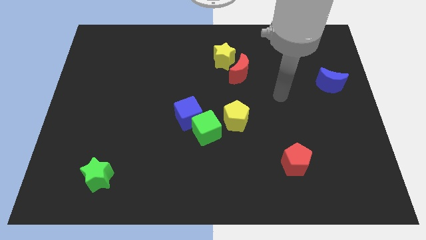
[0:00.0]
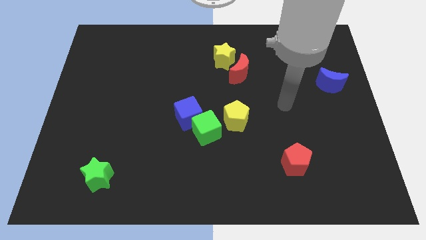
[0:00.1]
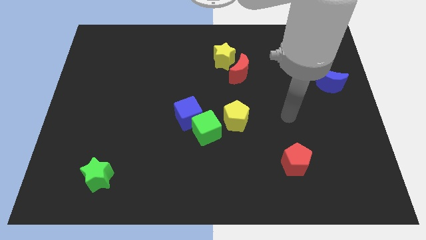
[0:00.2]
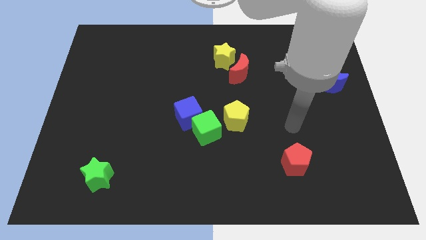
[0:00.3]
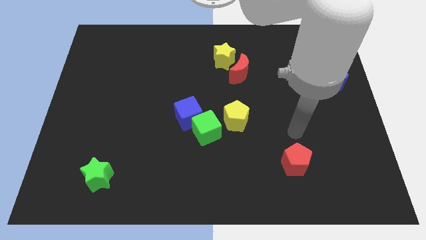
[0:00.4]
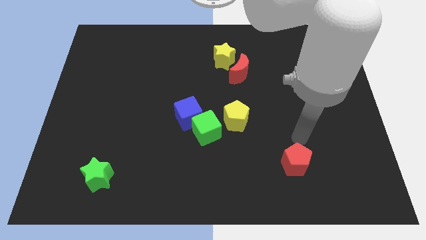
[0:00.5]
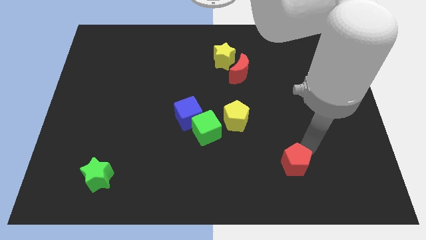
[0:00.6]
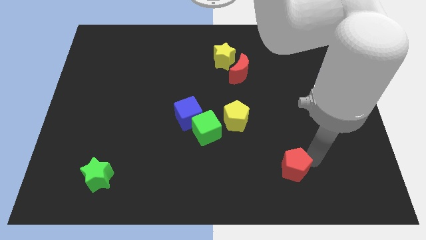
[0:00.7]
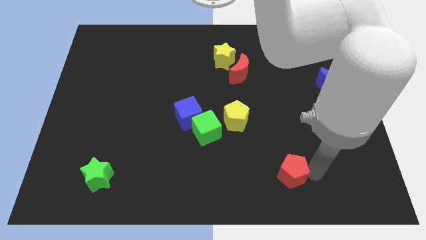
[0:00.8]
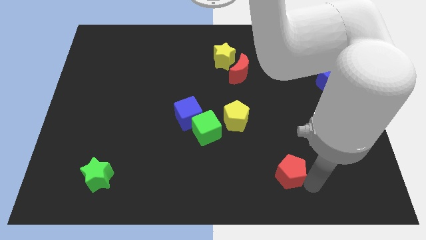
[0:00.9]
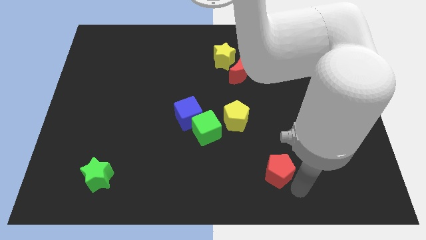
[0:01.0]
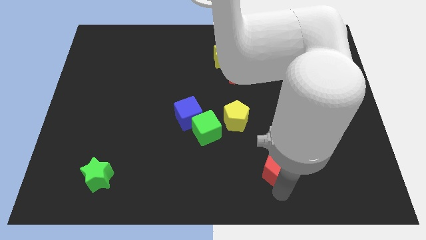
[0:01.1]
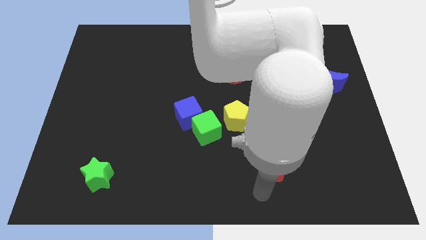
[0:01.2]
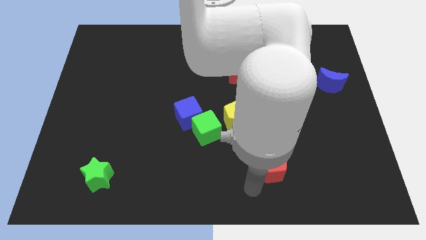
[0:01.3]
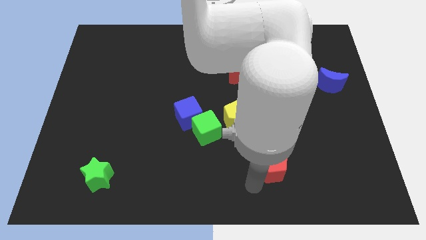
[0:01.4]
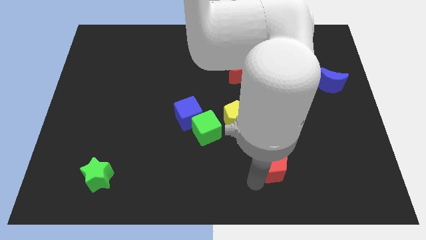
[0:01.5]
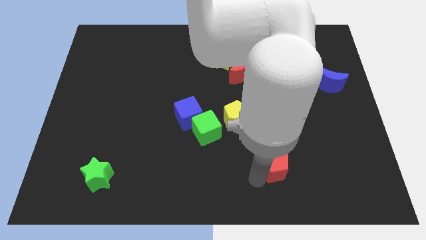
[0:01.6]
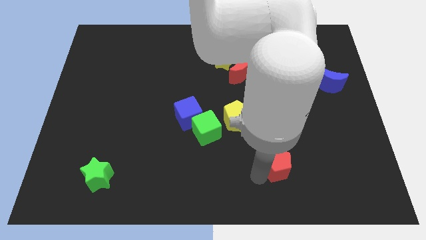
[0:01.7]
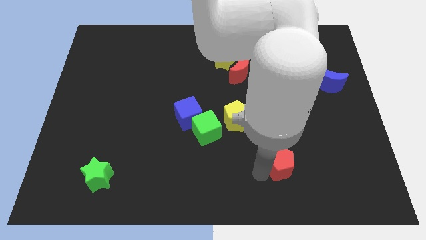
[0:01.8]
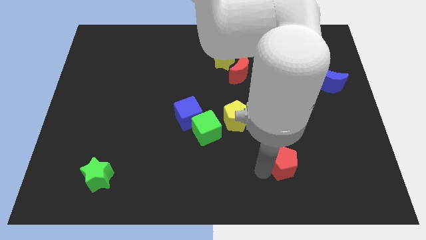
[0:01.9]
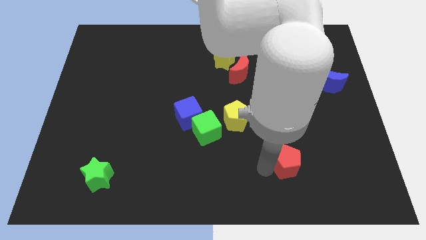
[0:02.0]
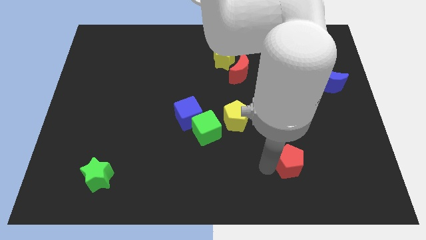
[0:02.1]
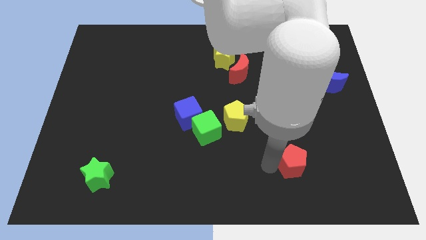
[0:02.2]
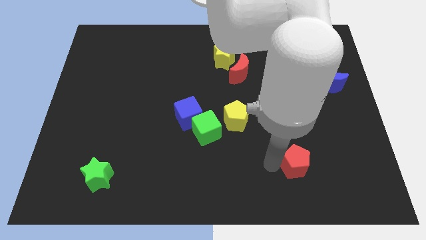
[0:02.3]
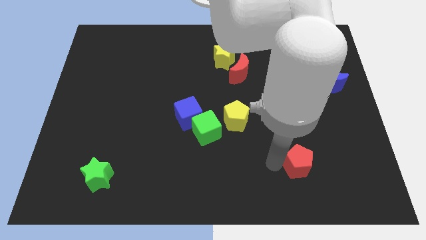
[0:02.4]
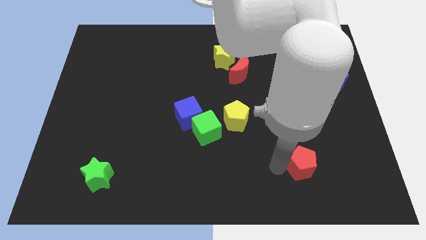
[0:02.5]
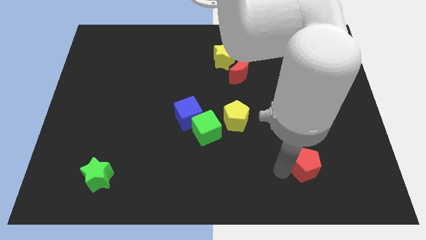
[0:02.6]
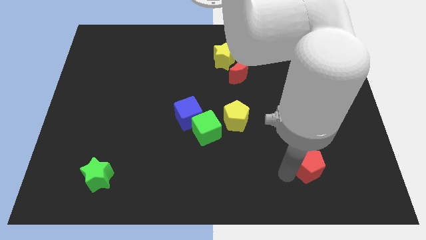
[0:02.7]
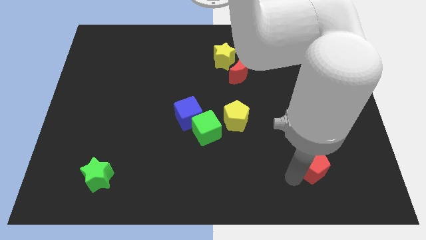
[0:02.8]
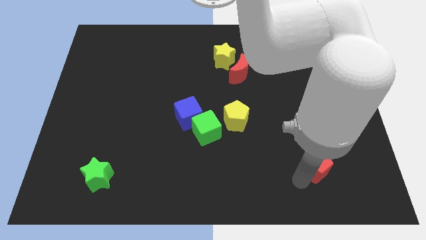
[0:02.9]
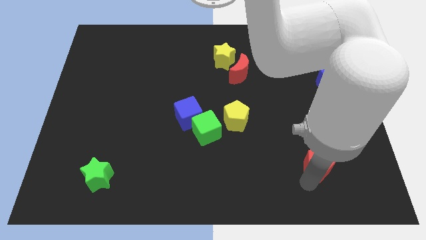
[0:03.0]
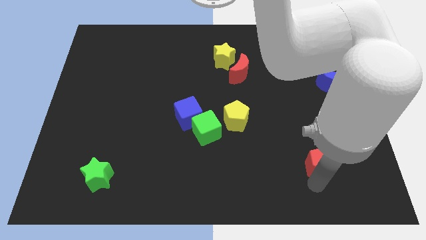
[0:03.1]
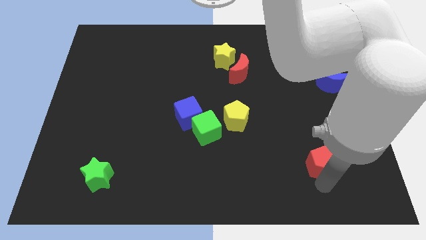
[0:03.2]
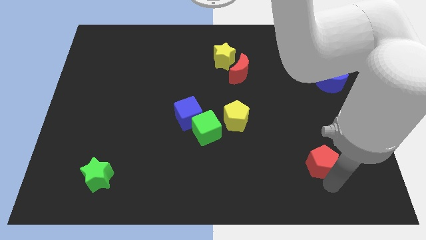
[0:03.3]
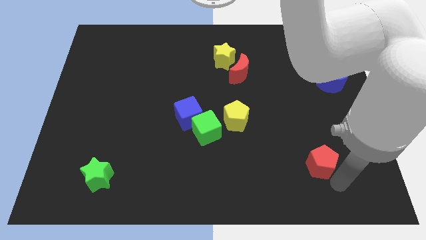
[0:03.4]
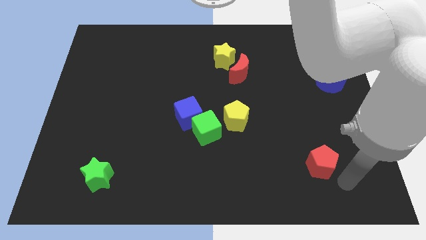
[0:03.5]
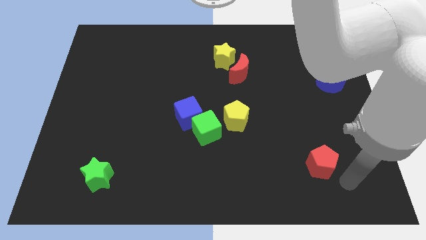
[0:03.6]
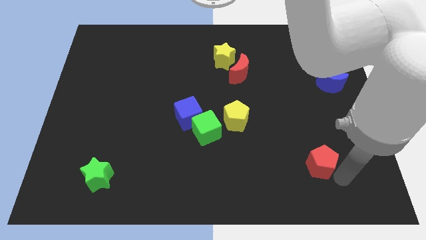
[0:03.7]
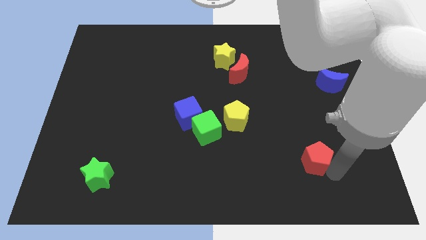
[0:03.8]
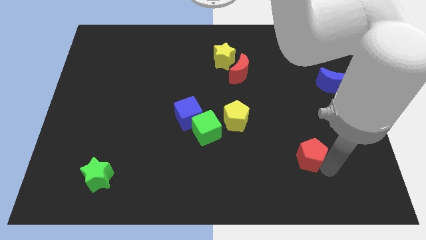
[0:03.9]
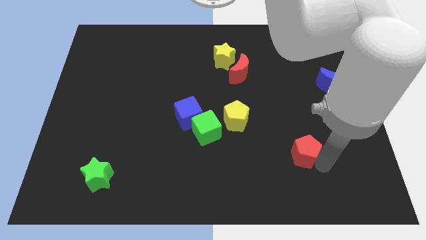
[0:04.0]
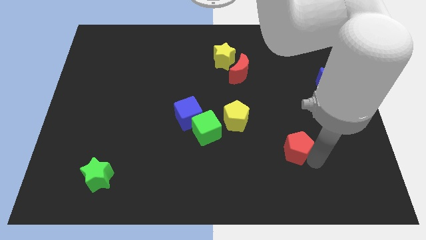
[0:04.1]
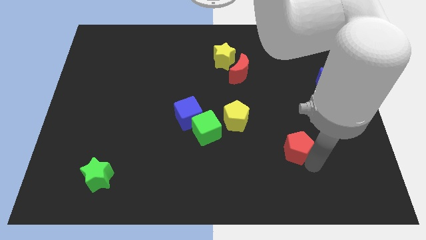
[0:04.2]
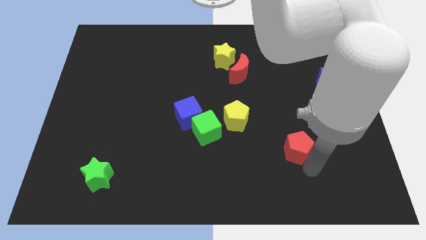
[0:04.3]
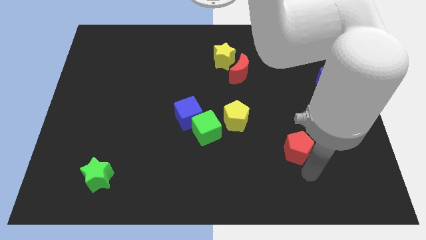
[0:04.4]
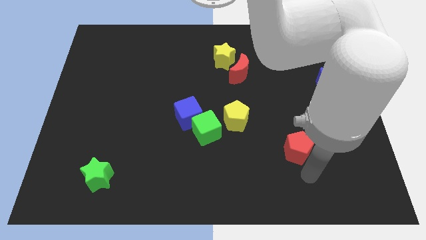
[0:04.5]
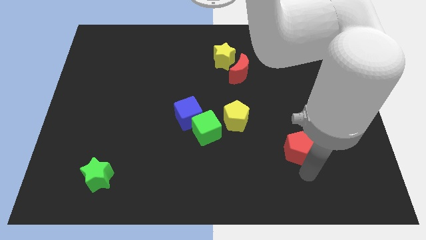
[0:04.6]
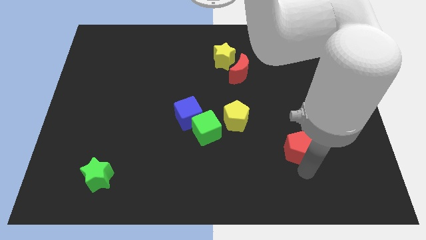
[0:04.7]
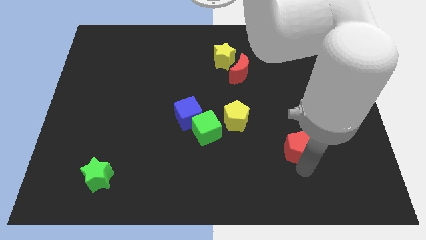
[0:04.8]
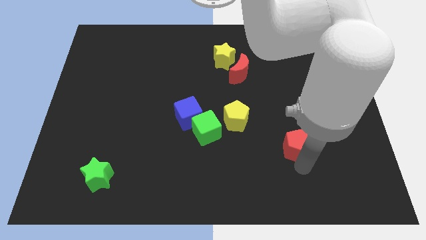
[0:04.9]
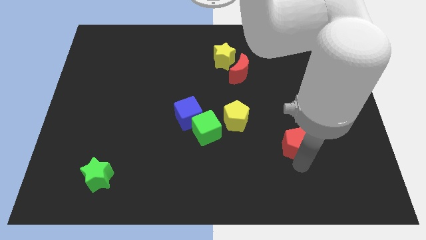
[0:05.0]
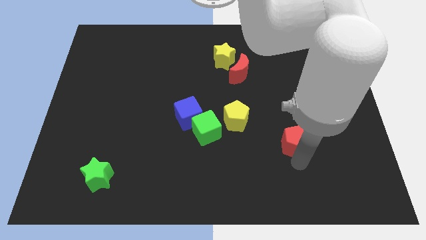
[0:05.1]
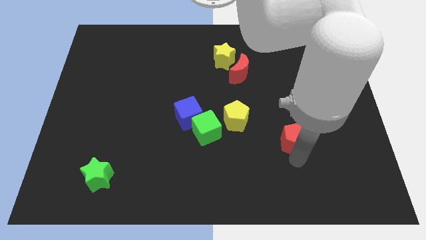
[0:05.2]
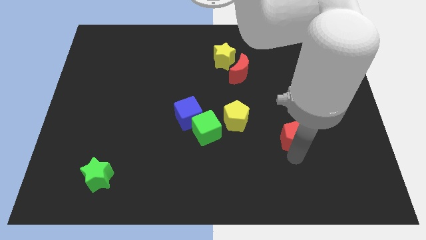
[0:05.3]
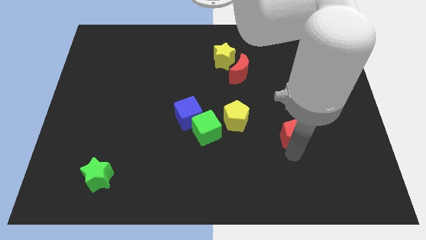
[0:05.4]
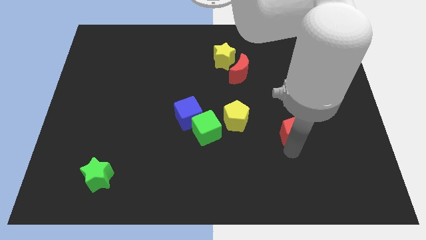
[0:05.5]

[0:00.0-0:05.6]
slightly push the red pentagon up

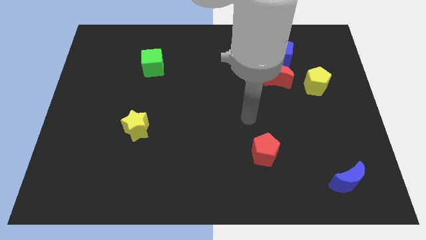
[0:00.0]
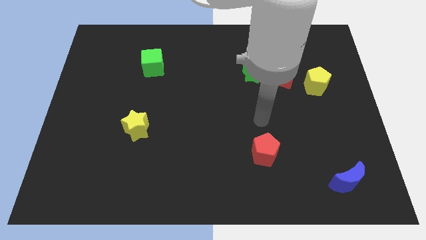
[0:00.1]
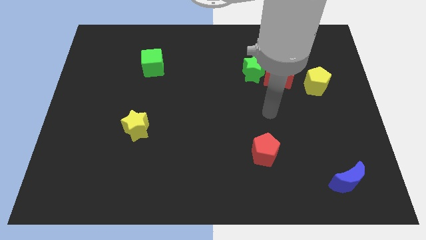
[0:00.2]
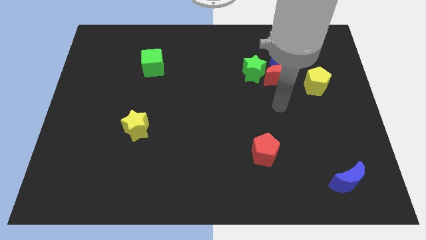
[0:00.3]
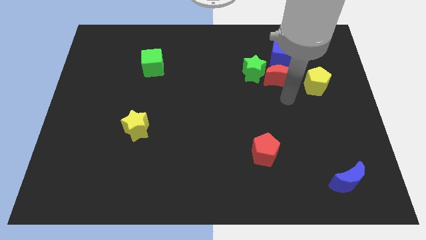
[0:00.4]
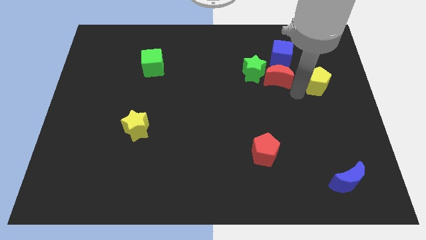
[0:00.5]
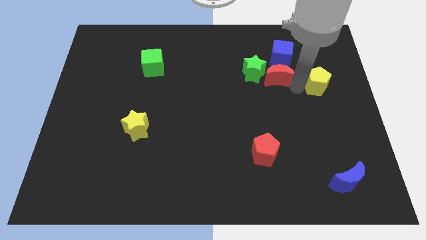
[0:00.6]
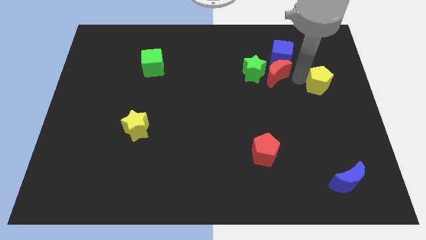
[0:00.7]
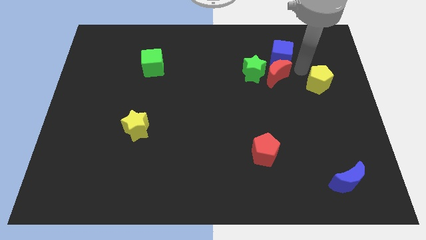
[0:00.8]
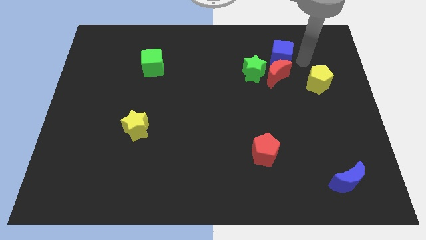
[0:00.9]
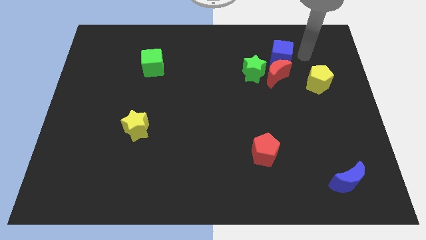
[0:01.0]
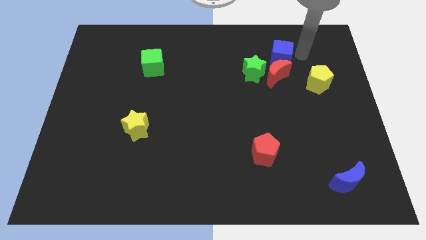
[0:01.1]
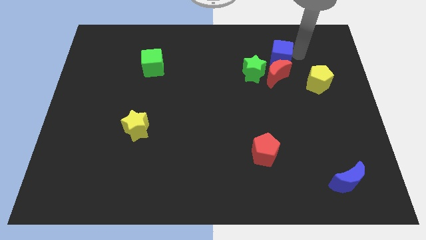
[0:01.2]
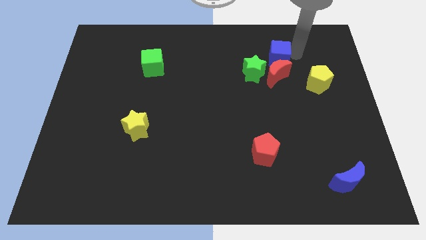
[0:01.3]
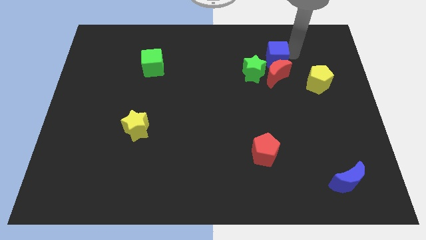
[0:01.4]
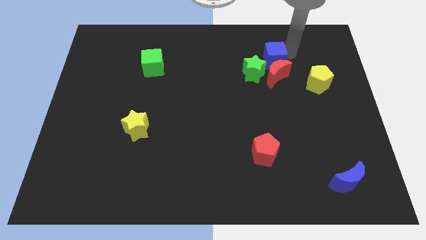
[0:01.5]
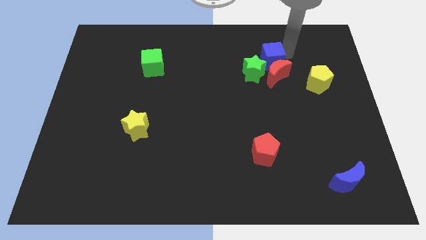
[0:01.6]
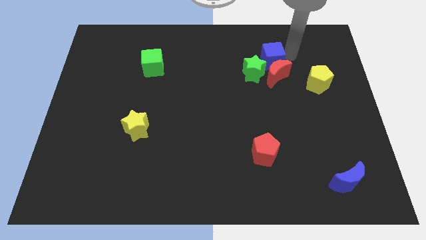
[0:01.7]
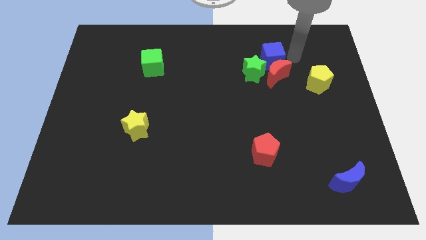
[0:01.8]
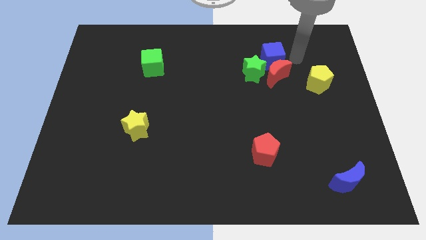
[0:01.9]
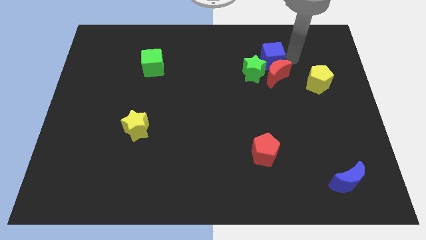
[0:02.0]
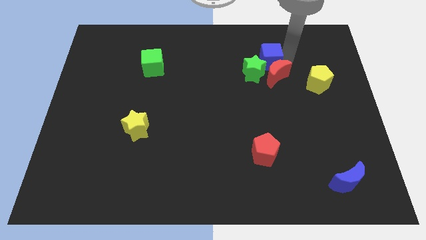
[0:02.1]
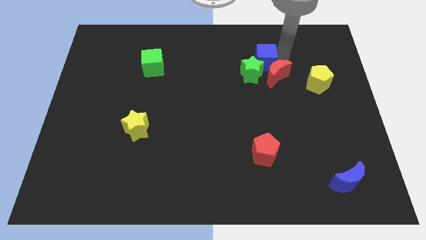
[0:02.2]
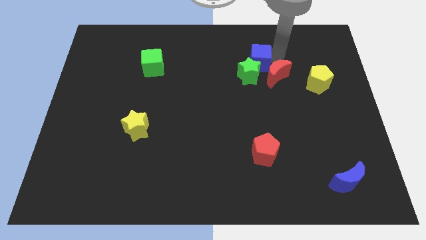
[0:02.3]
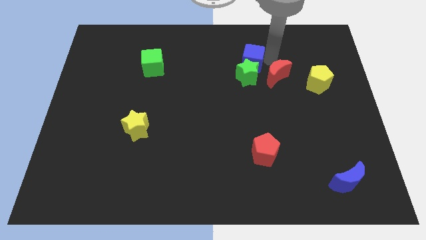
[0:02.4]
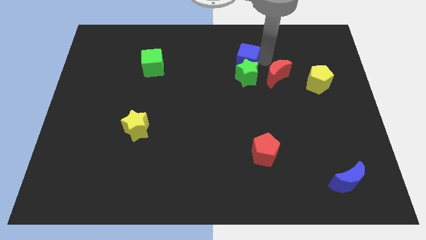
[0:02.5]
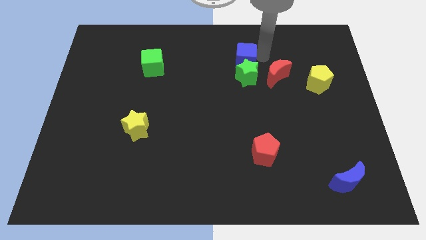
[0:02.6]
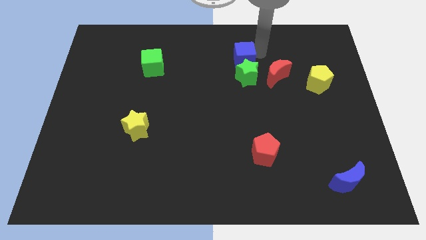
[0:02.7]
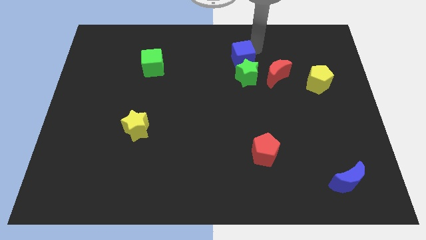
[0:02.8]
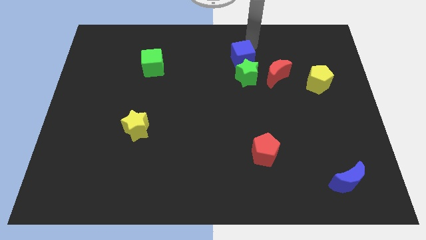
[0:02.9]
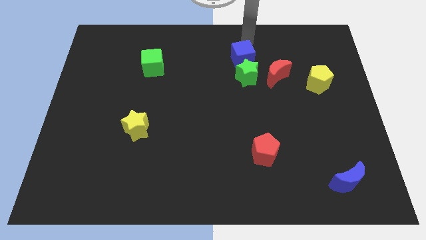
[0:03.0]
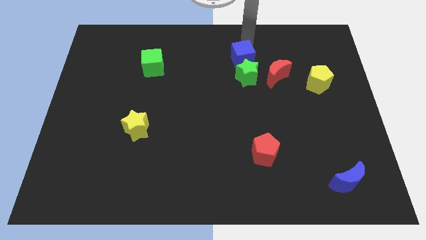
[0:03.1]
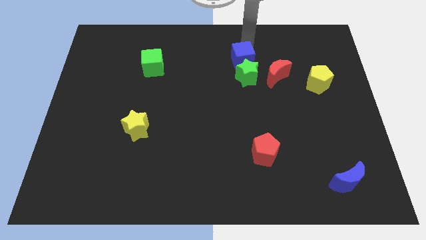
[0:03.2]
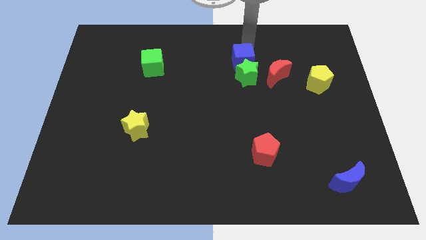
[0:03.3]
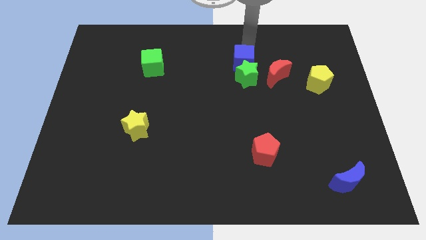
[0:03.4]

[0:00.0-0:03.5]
move the blue cube downwards and then to the left a little
